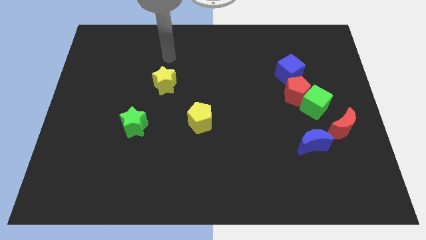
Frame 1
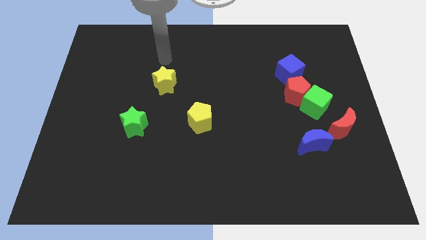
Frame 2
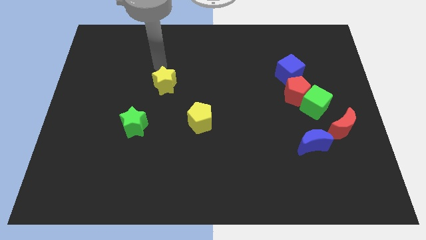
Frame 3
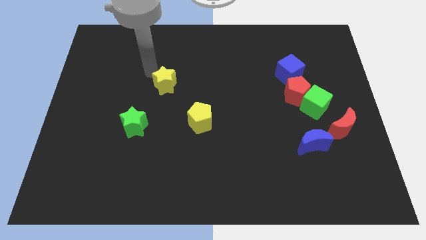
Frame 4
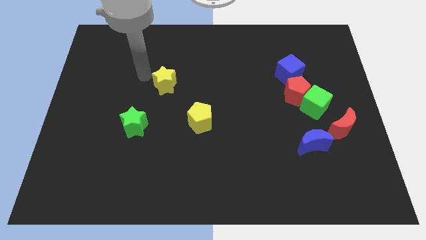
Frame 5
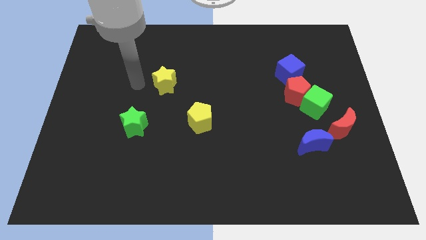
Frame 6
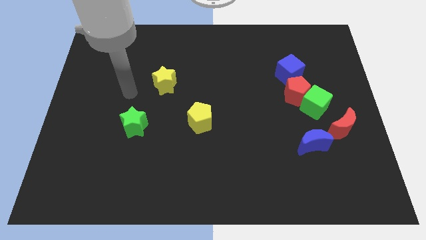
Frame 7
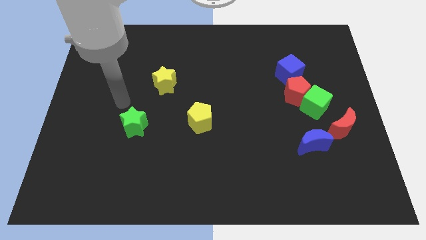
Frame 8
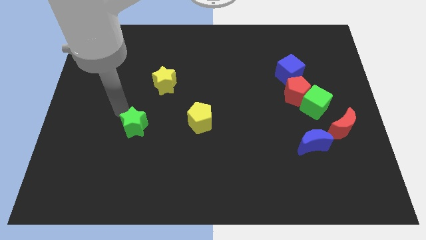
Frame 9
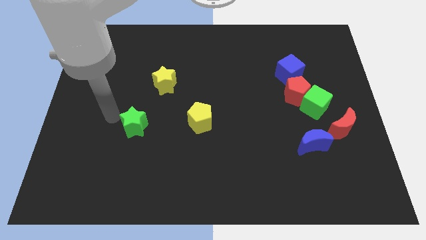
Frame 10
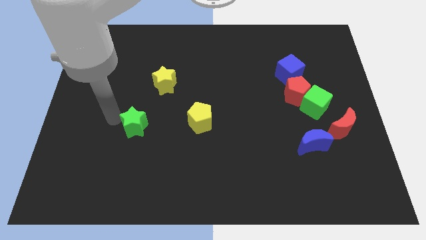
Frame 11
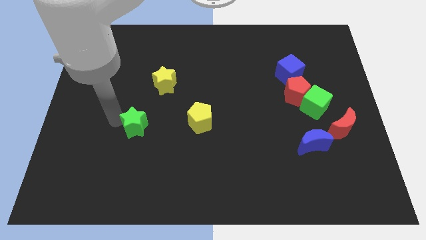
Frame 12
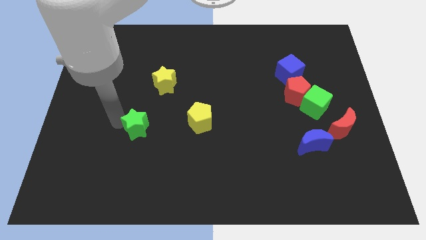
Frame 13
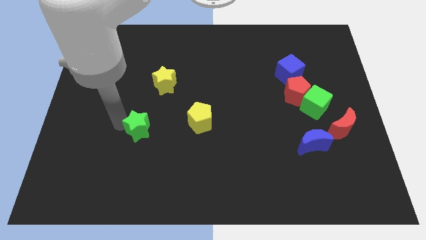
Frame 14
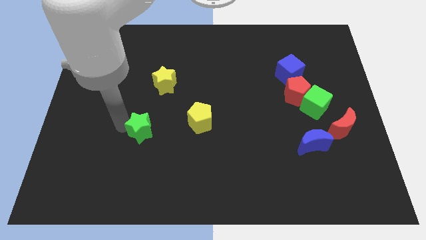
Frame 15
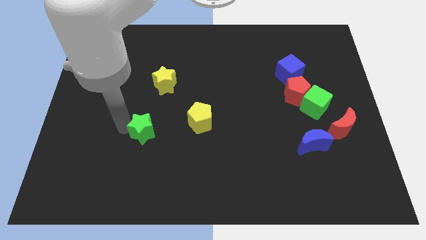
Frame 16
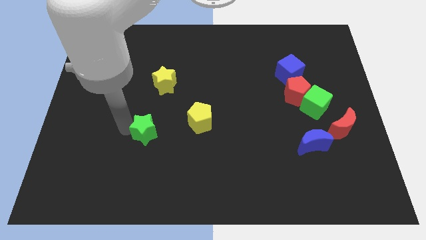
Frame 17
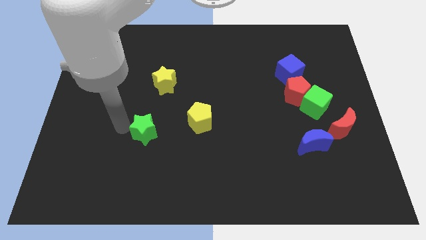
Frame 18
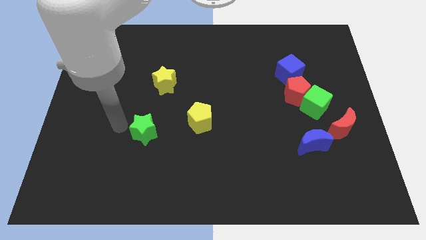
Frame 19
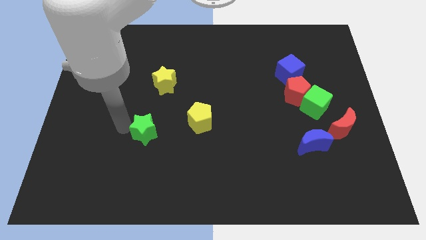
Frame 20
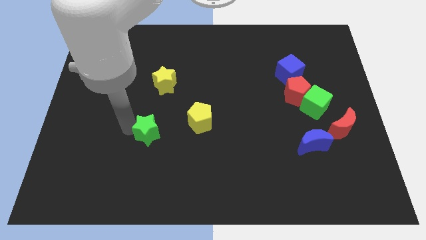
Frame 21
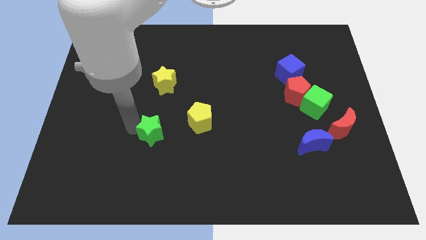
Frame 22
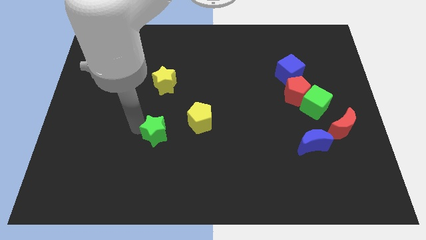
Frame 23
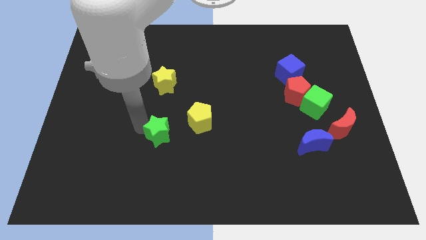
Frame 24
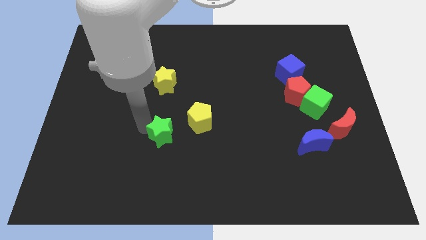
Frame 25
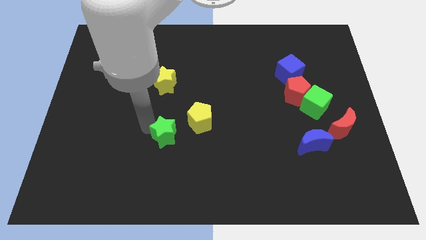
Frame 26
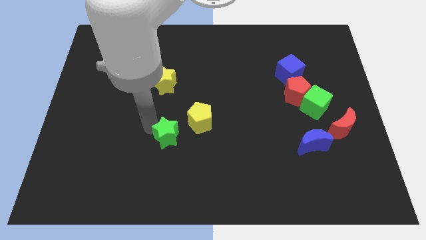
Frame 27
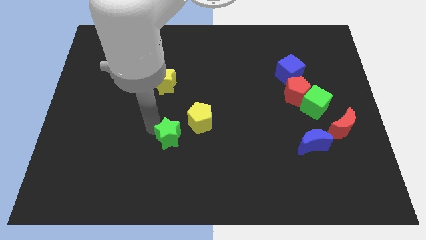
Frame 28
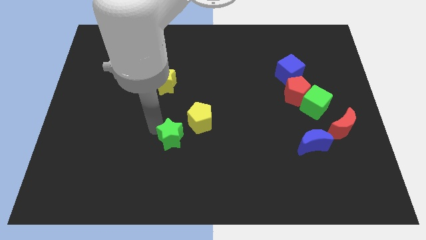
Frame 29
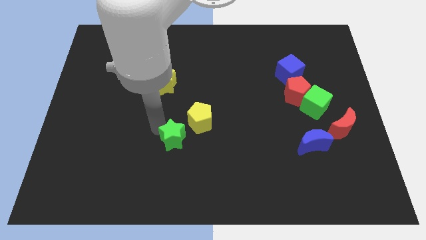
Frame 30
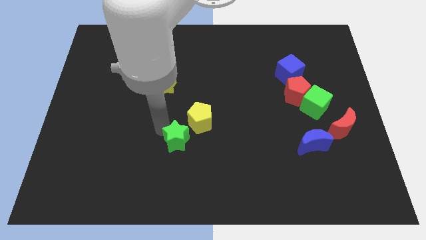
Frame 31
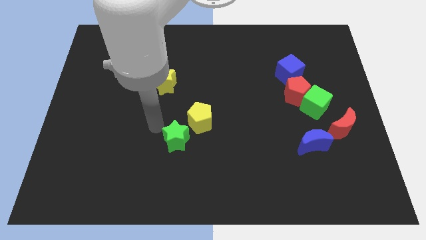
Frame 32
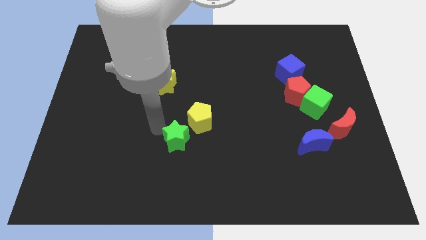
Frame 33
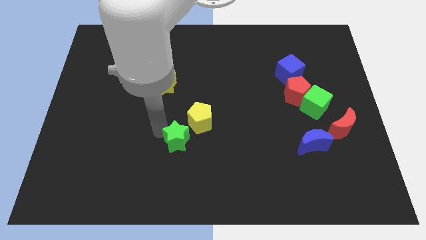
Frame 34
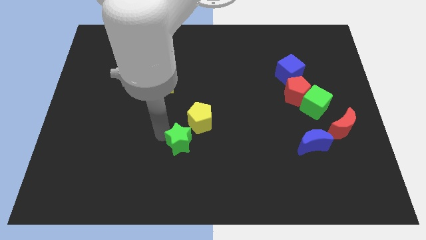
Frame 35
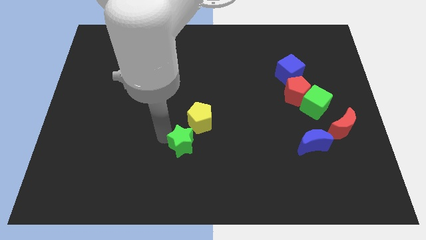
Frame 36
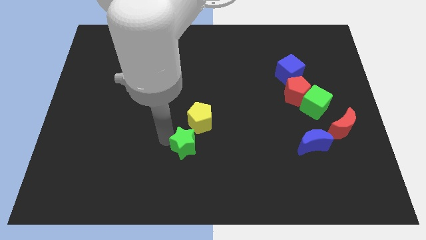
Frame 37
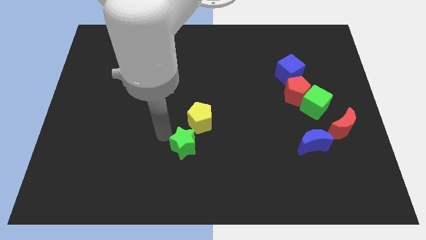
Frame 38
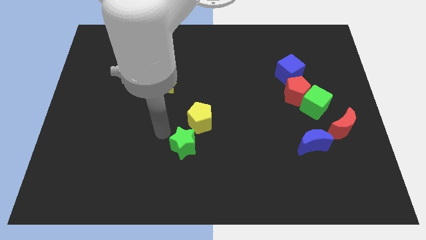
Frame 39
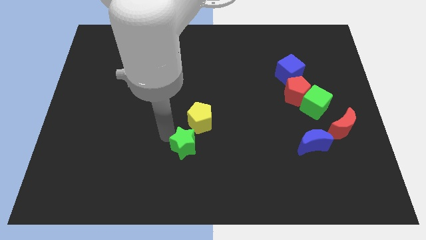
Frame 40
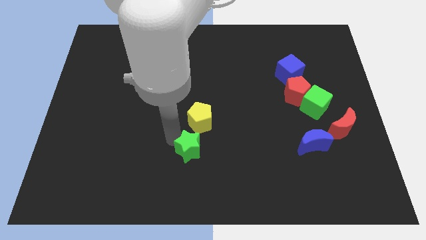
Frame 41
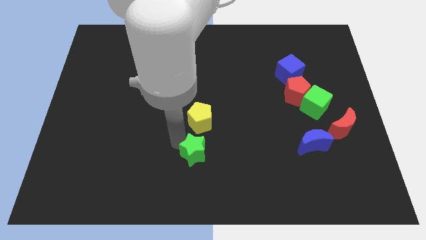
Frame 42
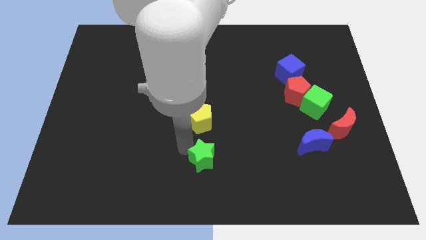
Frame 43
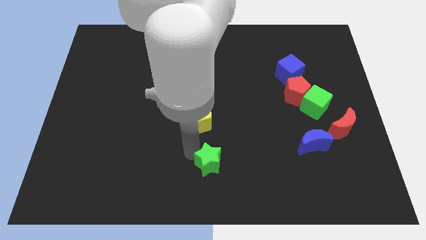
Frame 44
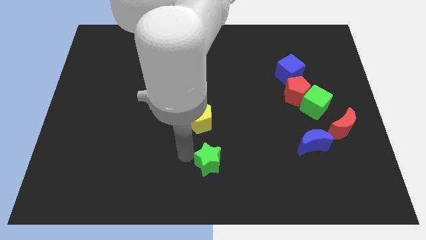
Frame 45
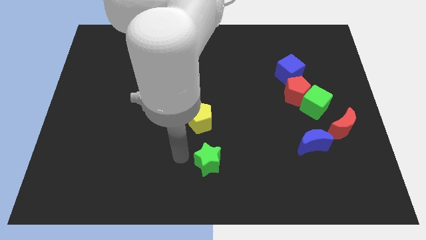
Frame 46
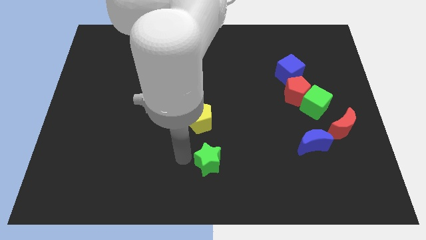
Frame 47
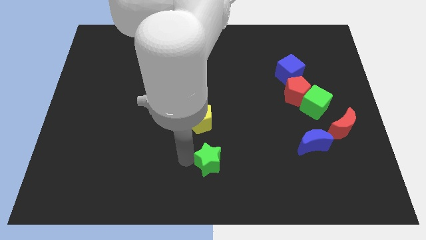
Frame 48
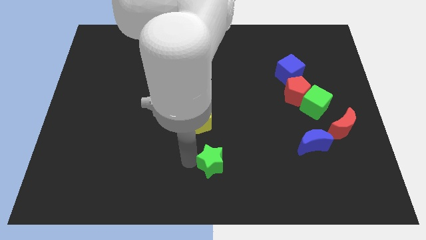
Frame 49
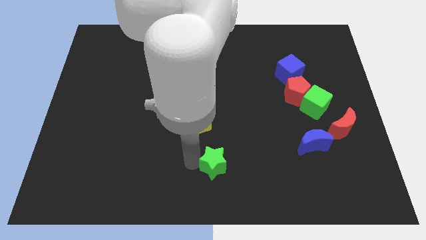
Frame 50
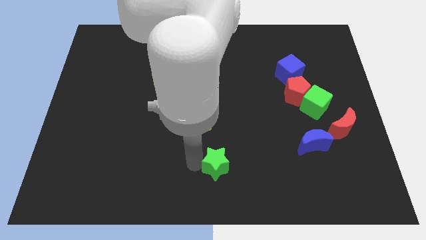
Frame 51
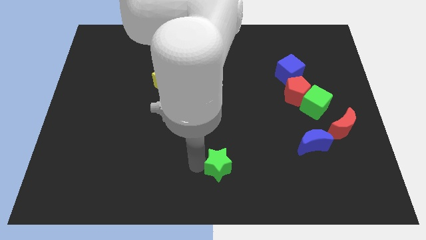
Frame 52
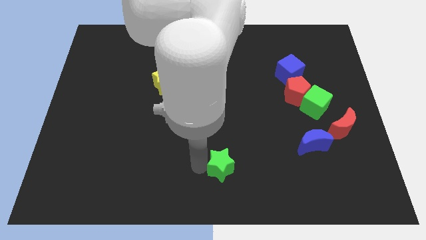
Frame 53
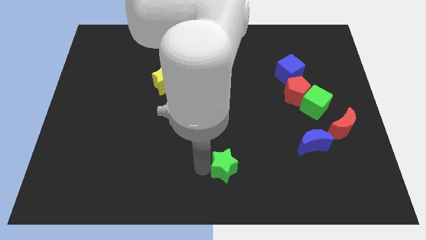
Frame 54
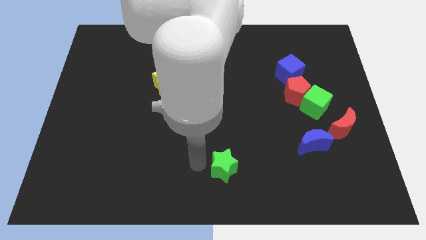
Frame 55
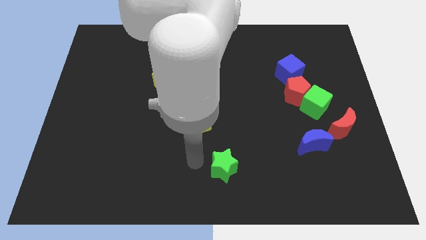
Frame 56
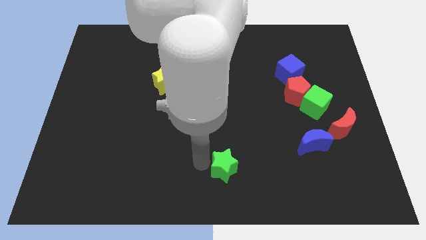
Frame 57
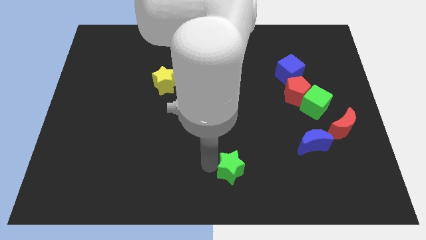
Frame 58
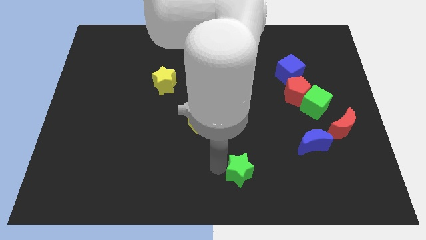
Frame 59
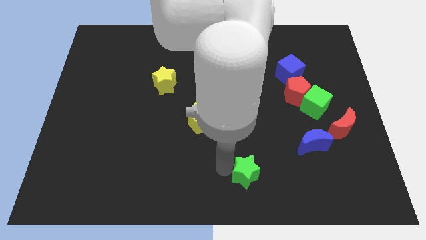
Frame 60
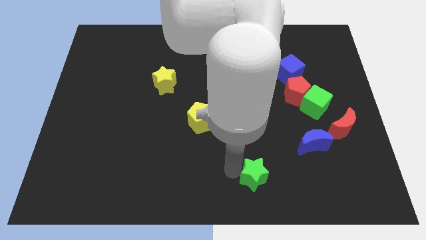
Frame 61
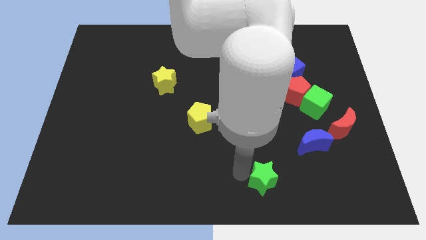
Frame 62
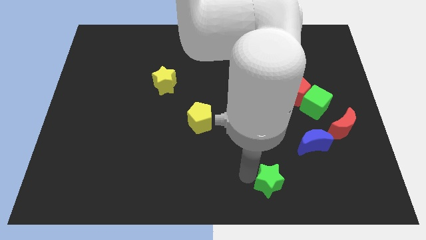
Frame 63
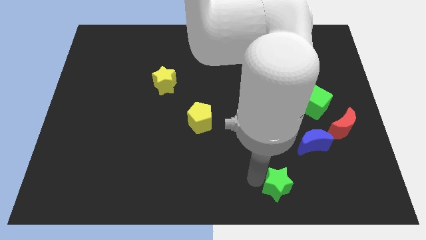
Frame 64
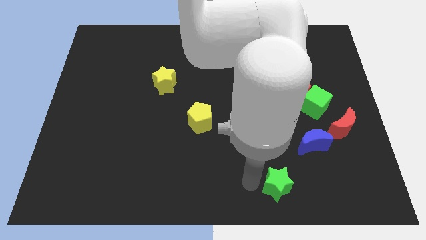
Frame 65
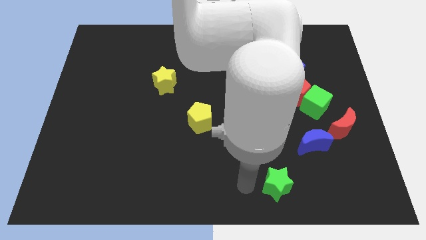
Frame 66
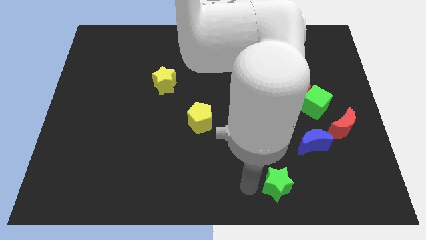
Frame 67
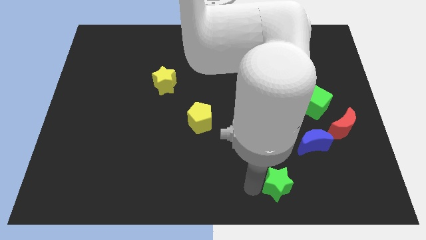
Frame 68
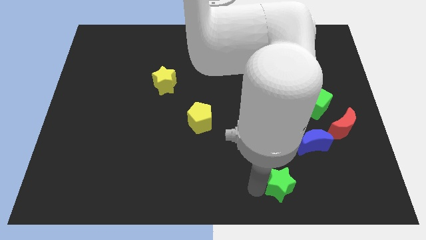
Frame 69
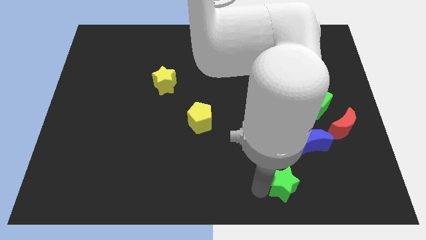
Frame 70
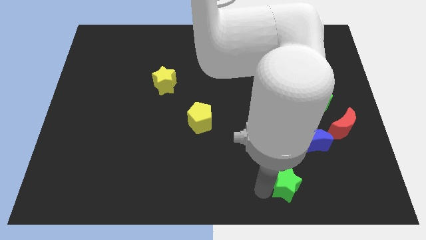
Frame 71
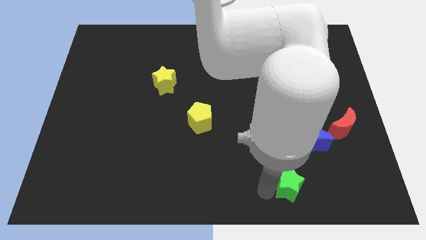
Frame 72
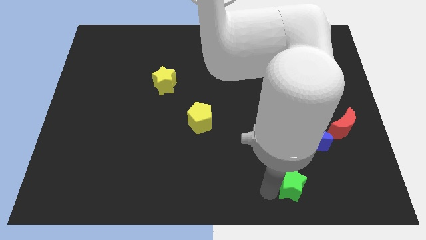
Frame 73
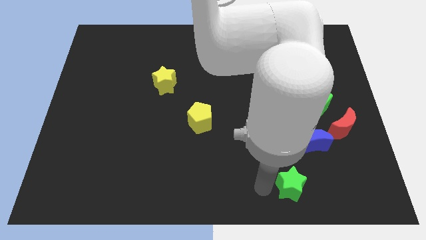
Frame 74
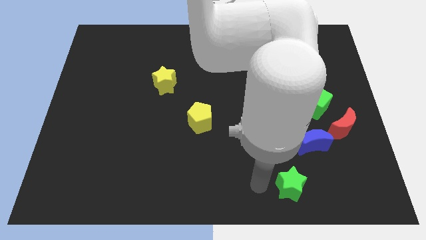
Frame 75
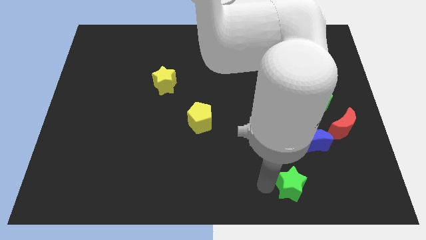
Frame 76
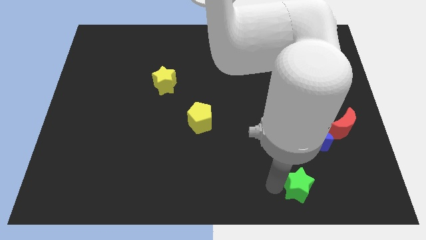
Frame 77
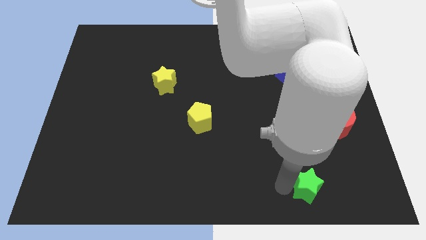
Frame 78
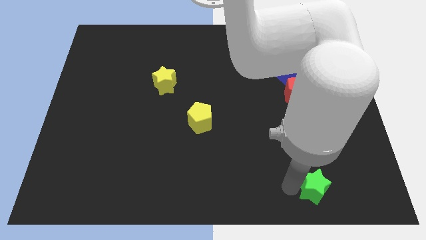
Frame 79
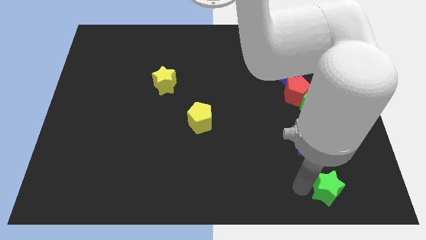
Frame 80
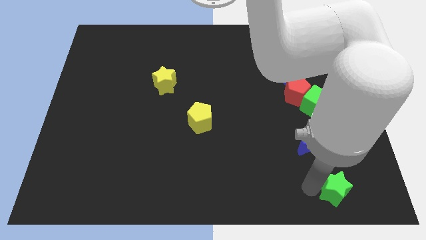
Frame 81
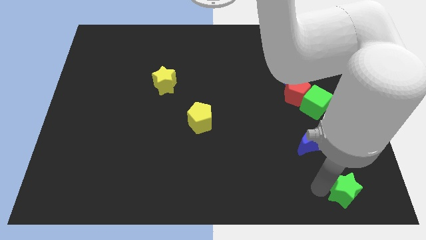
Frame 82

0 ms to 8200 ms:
slide the green star to the bottom right of the board
